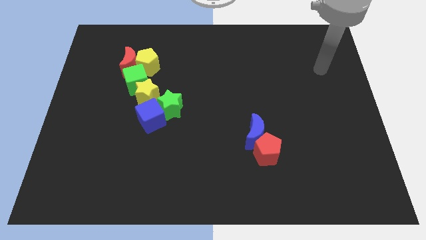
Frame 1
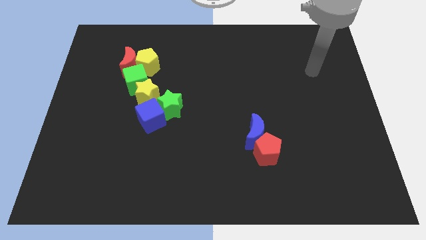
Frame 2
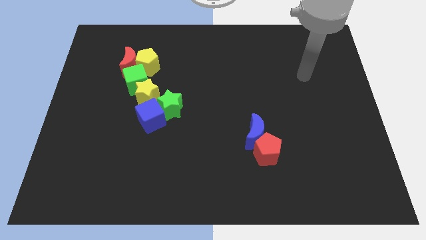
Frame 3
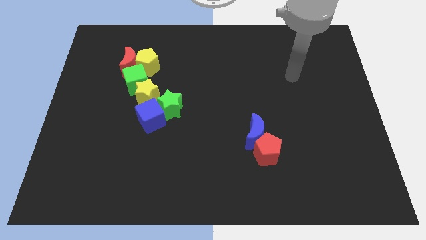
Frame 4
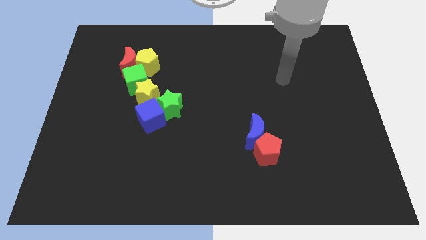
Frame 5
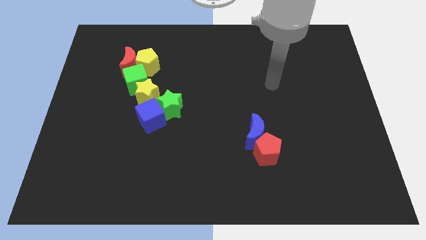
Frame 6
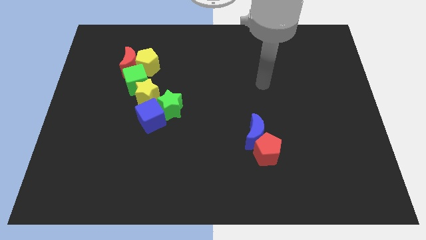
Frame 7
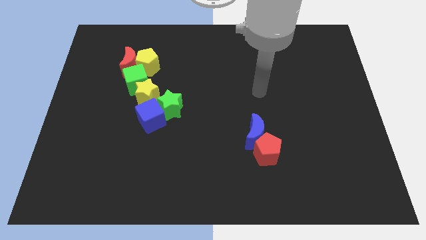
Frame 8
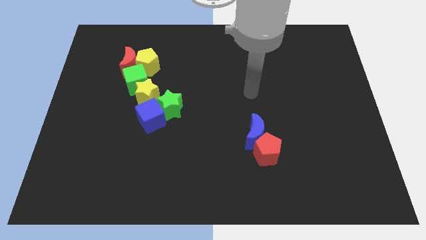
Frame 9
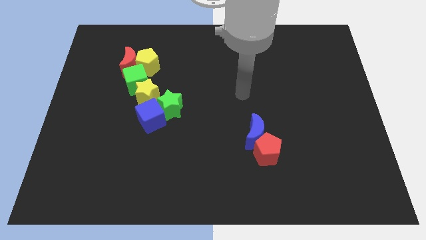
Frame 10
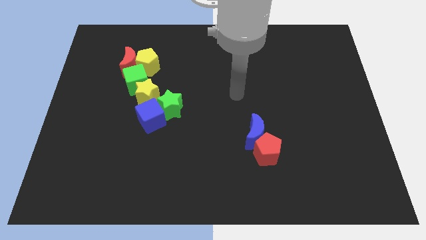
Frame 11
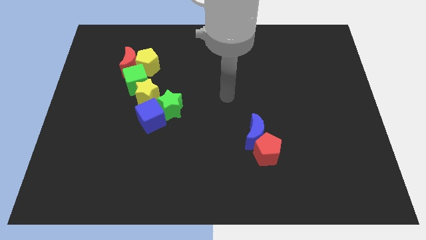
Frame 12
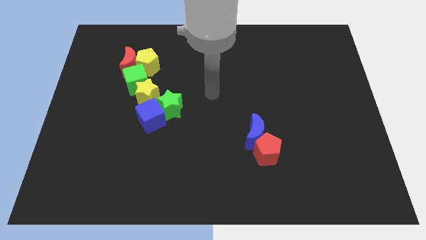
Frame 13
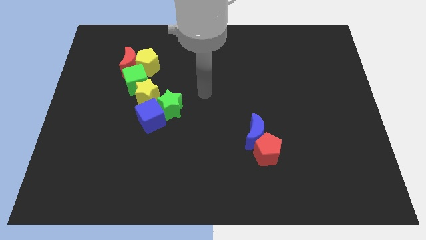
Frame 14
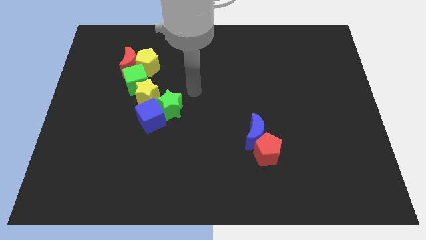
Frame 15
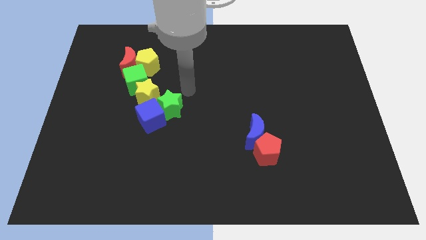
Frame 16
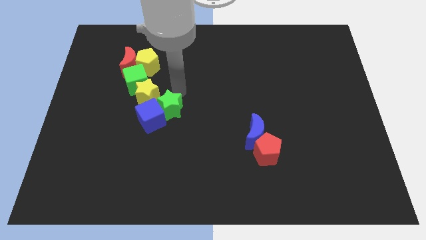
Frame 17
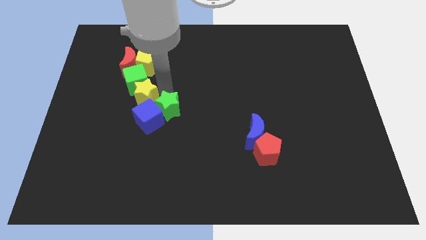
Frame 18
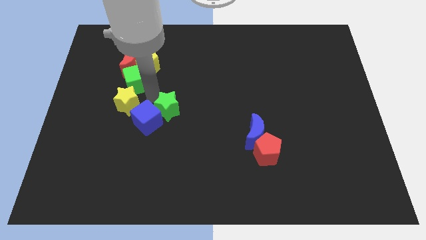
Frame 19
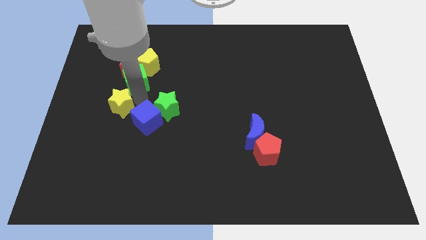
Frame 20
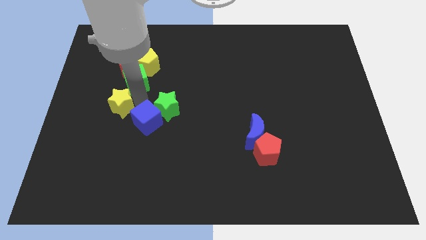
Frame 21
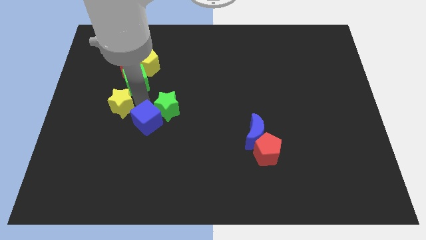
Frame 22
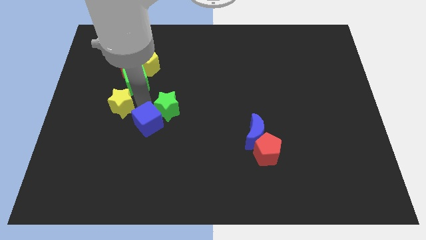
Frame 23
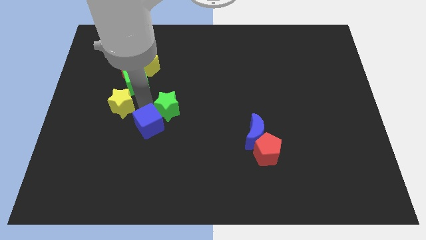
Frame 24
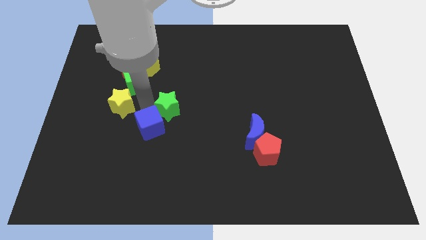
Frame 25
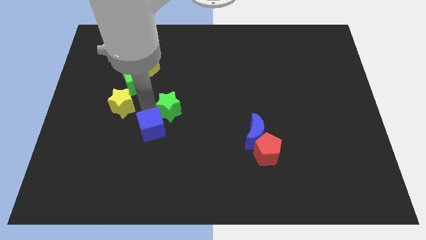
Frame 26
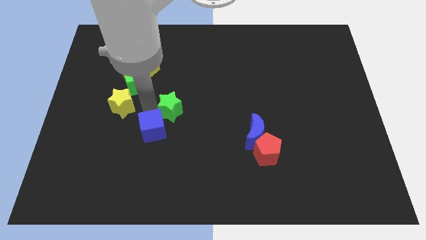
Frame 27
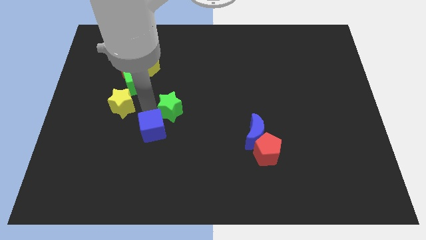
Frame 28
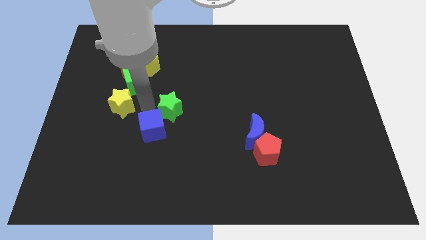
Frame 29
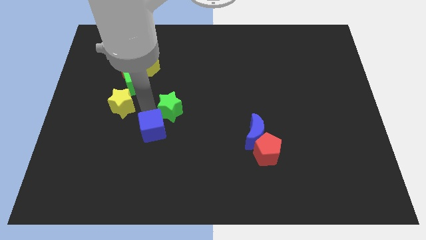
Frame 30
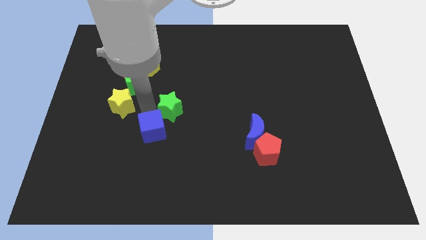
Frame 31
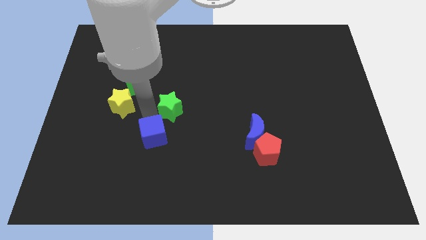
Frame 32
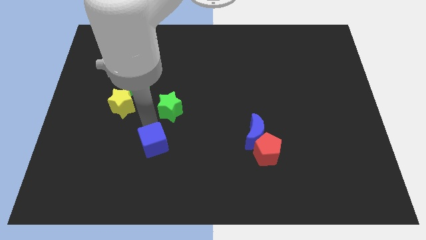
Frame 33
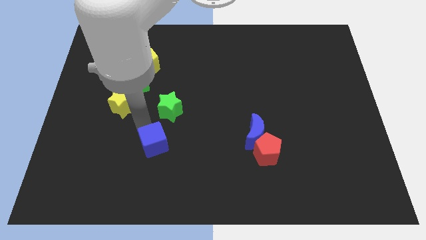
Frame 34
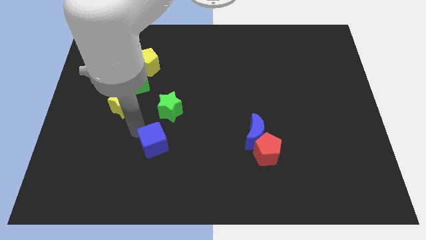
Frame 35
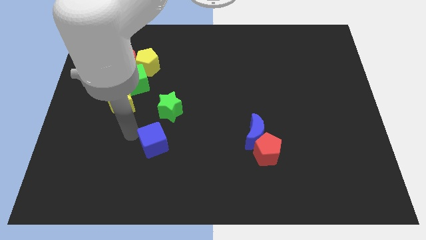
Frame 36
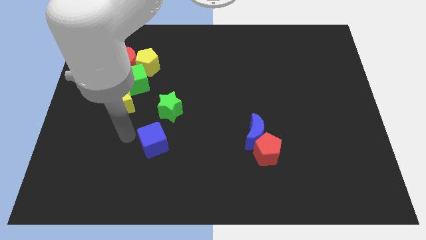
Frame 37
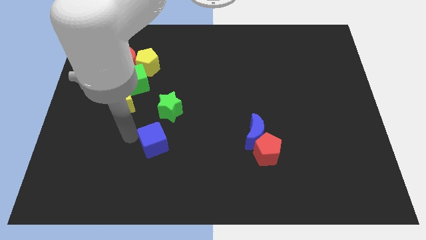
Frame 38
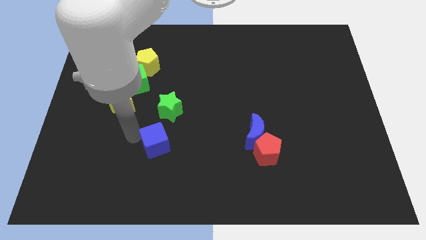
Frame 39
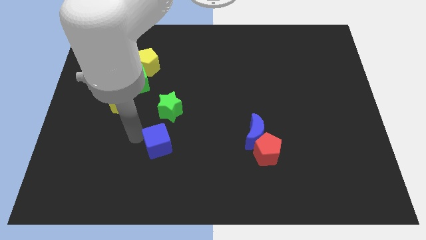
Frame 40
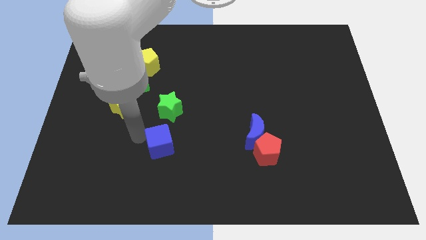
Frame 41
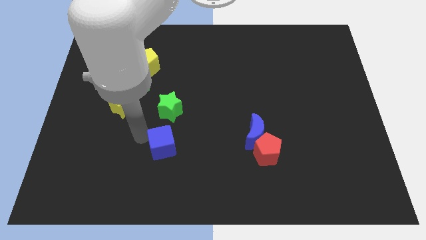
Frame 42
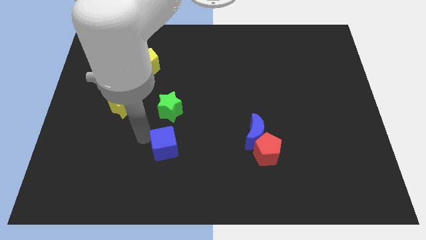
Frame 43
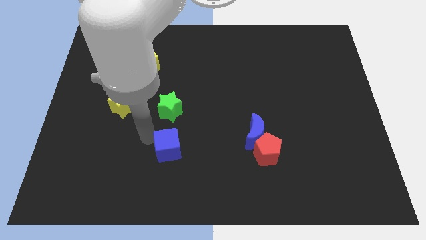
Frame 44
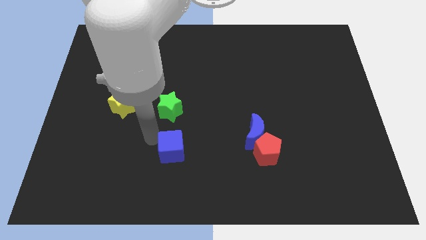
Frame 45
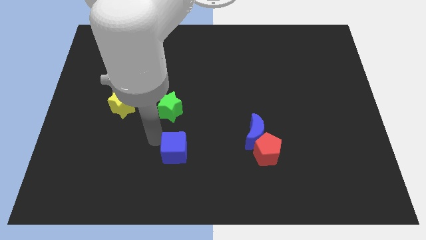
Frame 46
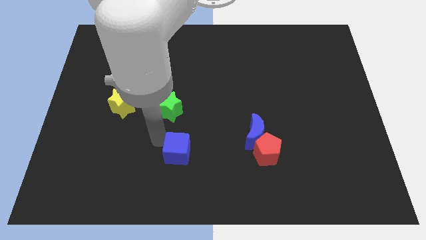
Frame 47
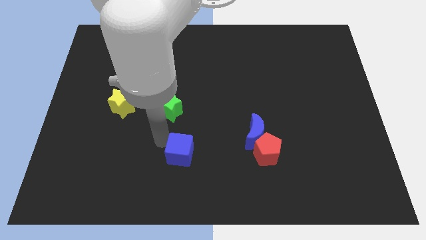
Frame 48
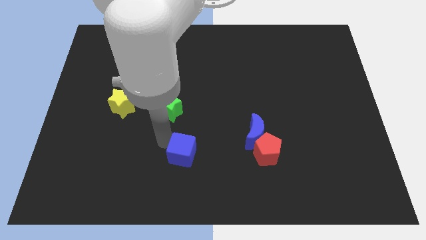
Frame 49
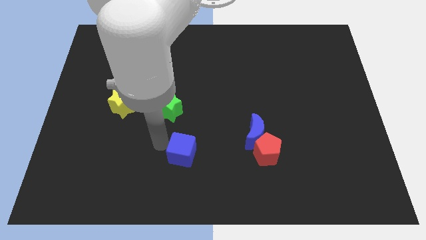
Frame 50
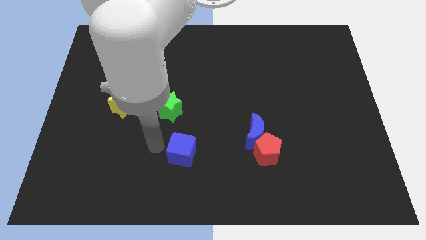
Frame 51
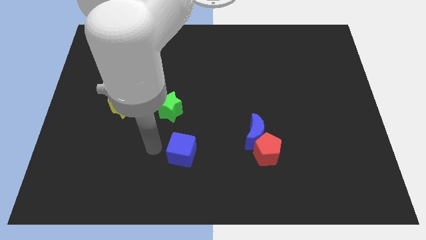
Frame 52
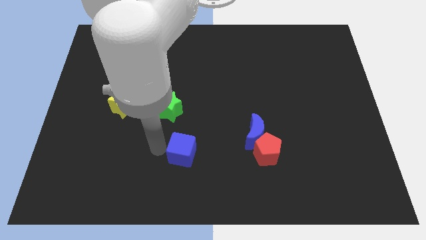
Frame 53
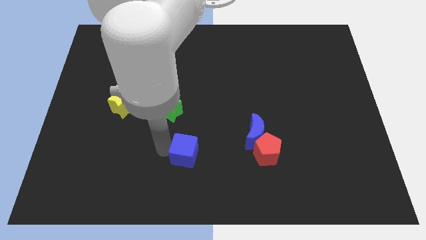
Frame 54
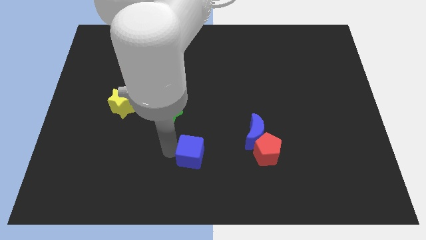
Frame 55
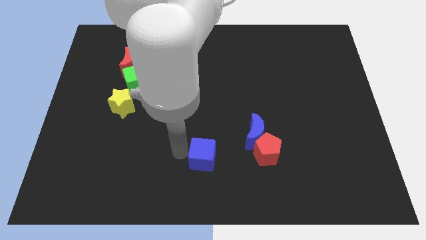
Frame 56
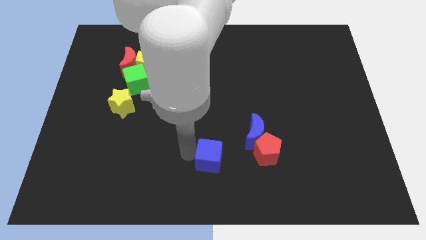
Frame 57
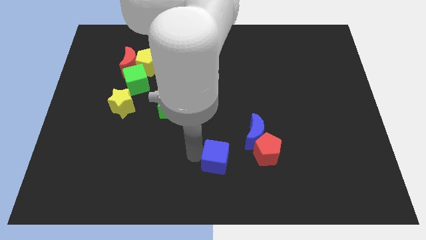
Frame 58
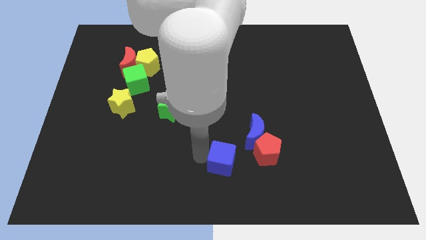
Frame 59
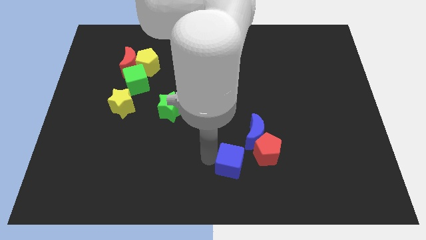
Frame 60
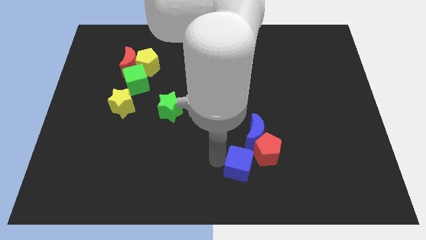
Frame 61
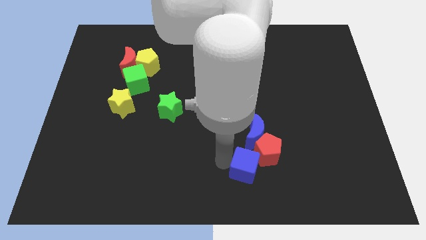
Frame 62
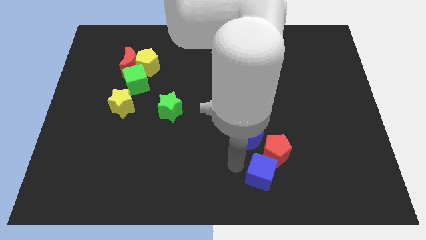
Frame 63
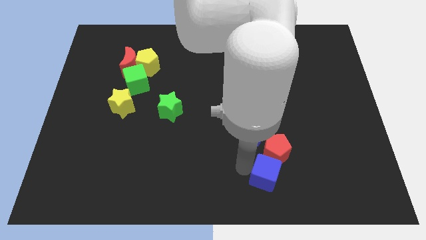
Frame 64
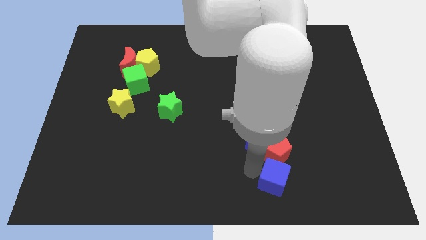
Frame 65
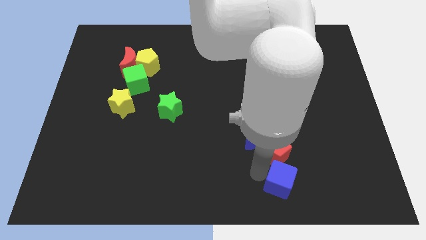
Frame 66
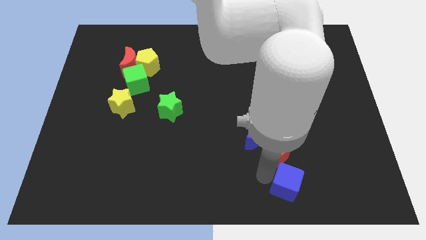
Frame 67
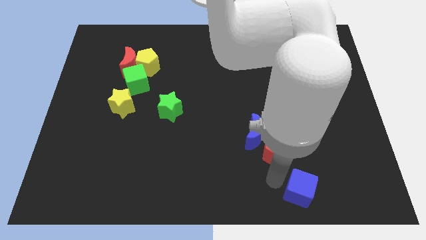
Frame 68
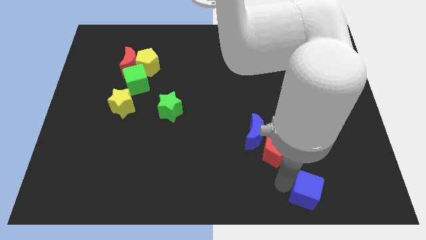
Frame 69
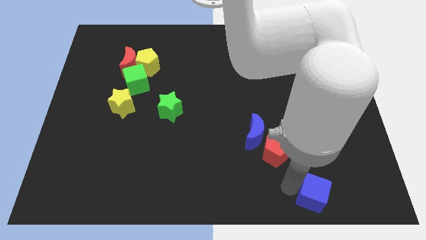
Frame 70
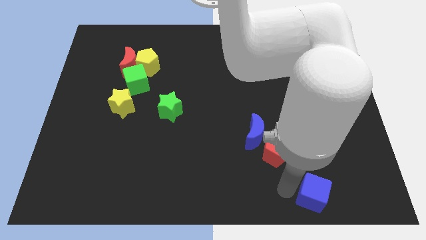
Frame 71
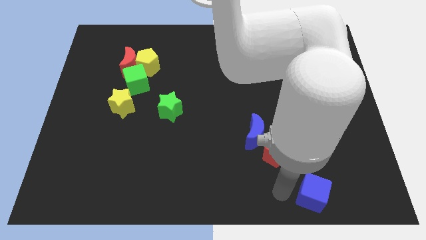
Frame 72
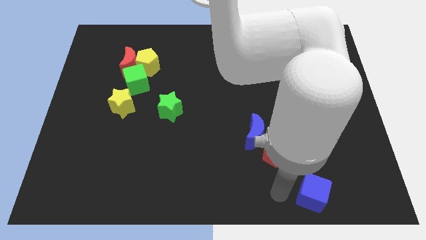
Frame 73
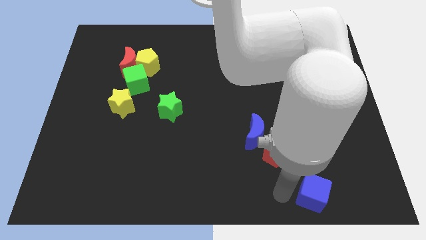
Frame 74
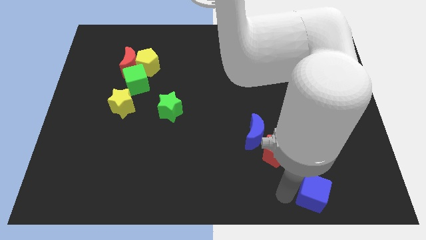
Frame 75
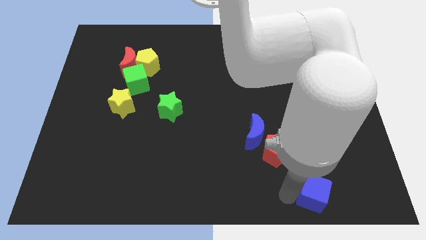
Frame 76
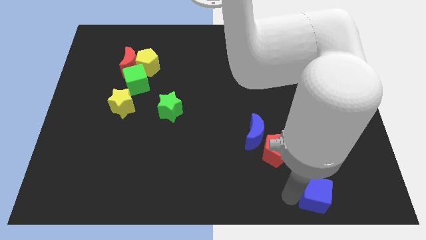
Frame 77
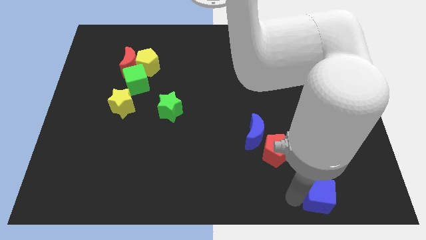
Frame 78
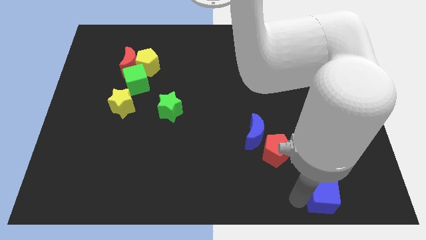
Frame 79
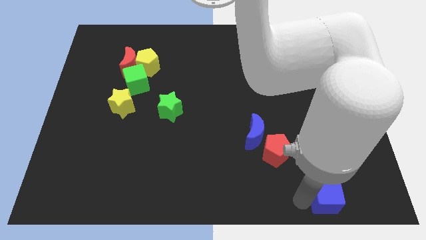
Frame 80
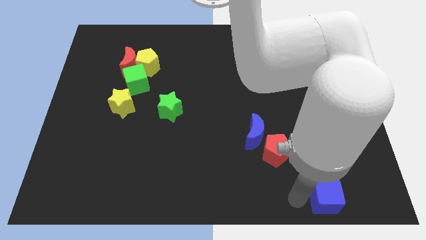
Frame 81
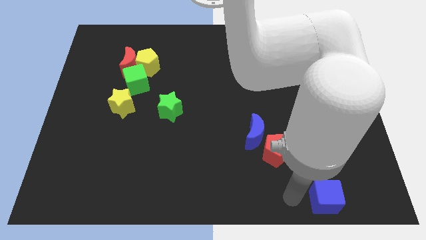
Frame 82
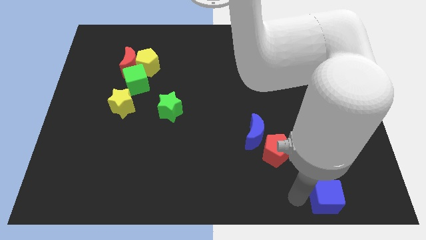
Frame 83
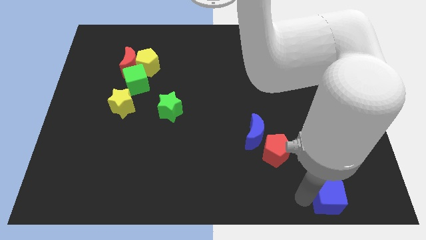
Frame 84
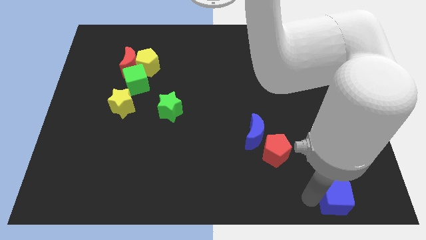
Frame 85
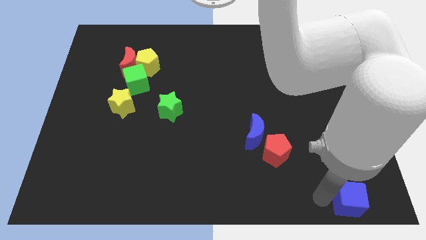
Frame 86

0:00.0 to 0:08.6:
move the blue cube to the lower right corner
